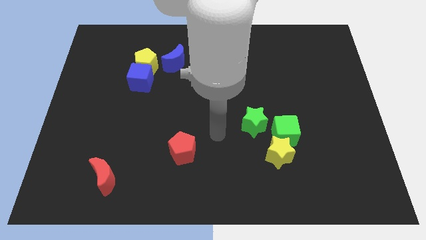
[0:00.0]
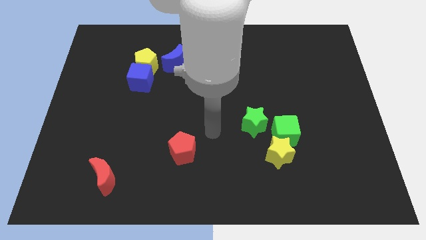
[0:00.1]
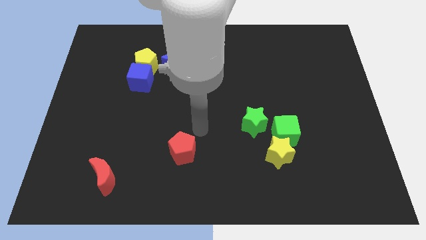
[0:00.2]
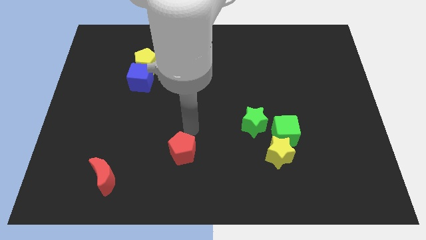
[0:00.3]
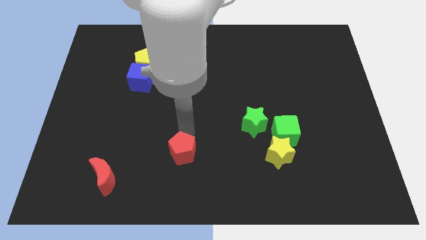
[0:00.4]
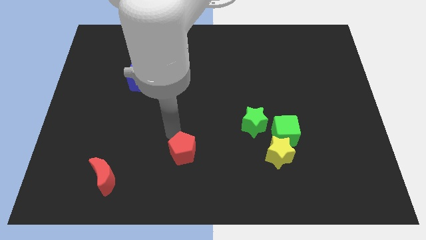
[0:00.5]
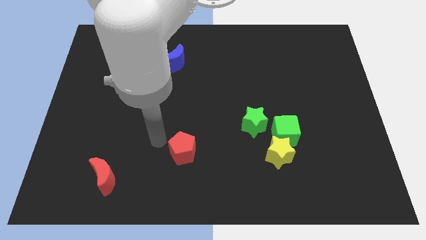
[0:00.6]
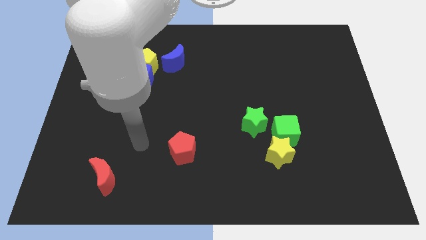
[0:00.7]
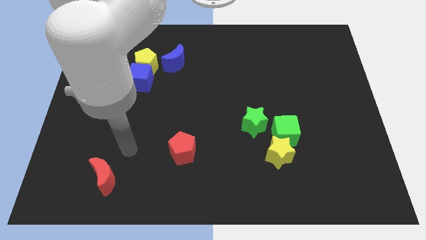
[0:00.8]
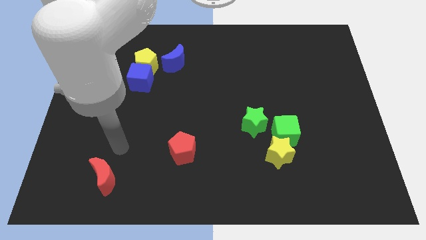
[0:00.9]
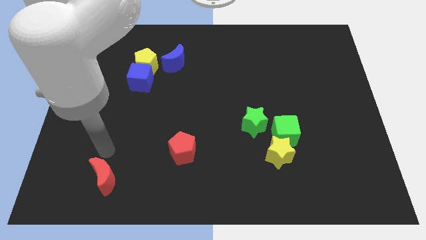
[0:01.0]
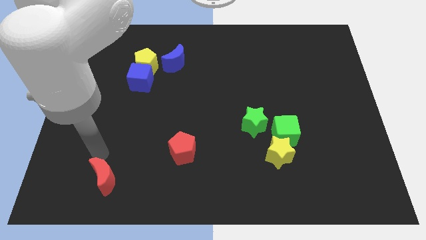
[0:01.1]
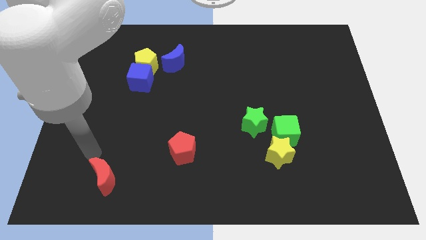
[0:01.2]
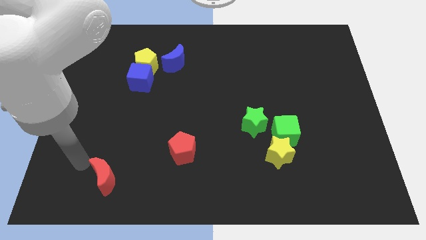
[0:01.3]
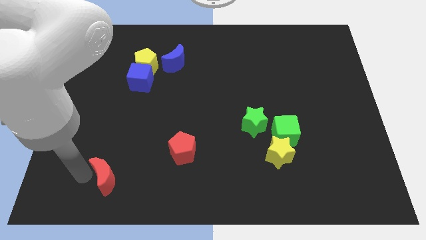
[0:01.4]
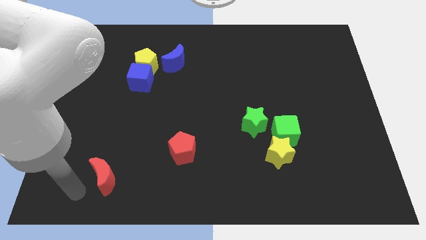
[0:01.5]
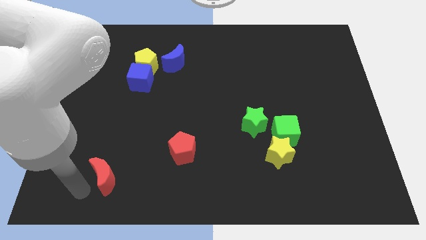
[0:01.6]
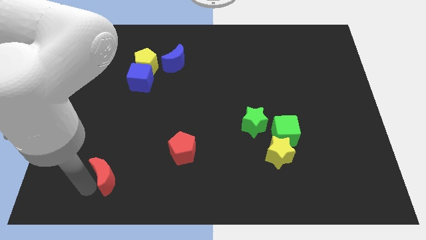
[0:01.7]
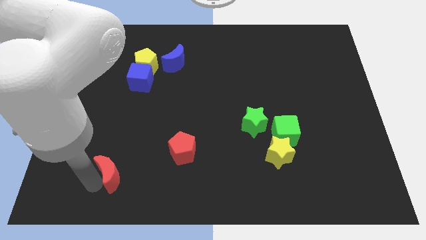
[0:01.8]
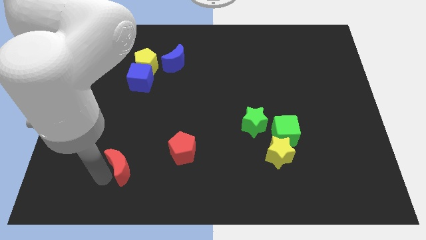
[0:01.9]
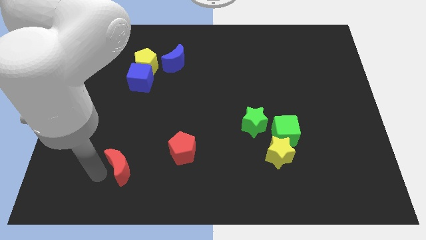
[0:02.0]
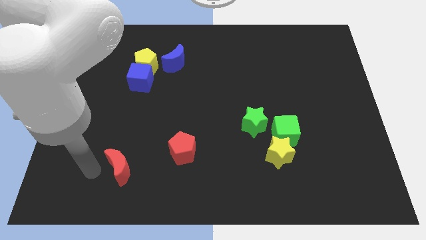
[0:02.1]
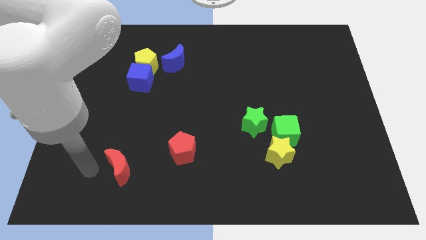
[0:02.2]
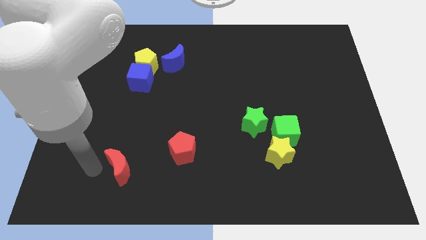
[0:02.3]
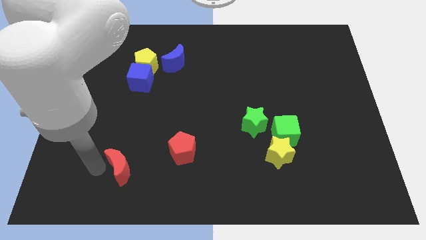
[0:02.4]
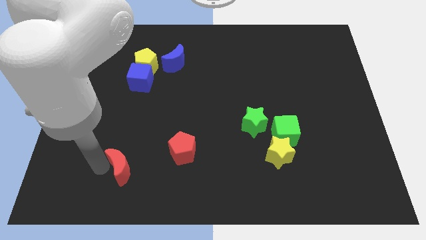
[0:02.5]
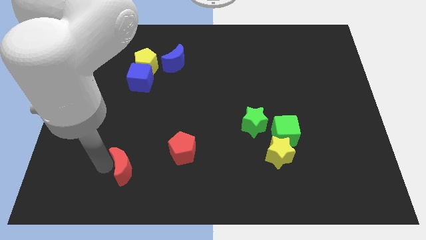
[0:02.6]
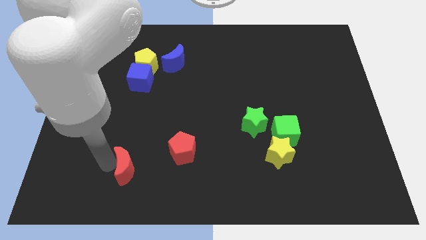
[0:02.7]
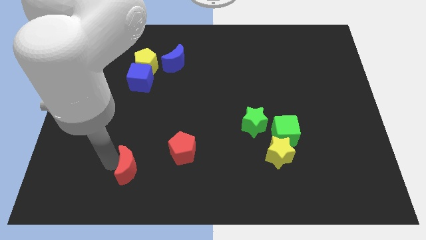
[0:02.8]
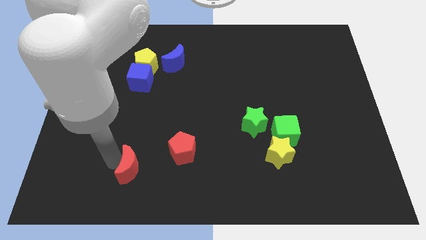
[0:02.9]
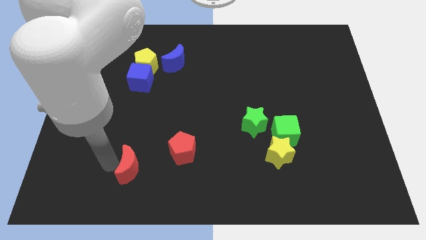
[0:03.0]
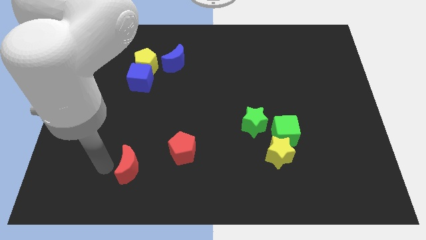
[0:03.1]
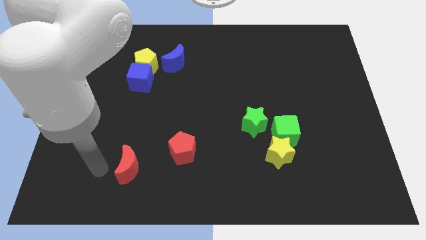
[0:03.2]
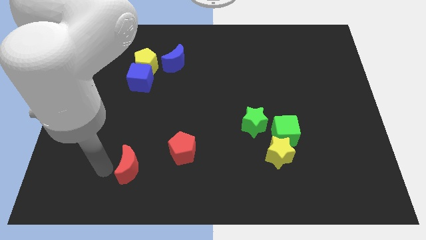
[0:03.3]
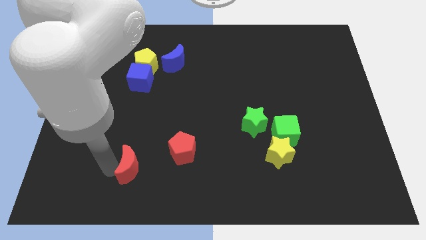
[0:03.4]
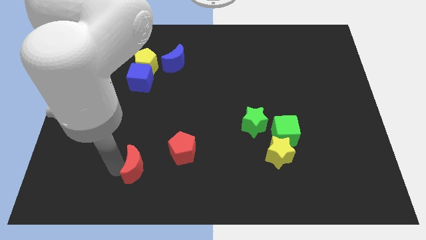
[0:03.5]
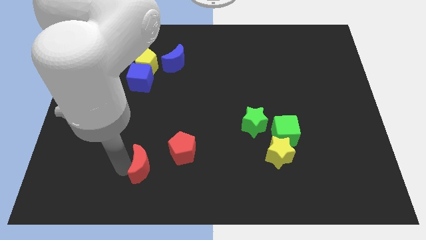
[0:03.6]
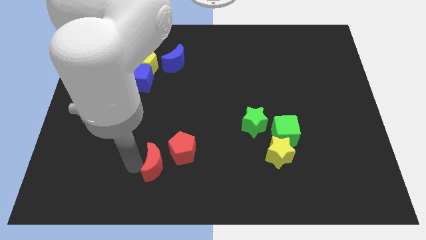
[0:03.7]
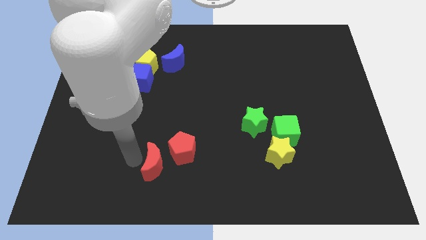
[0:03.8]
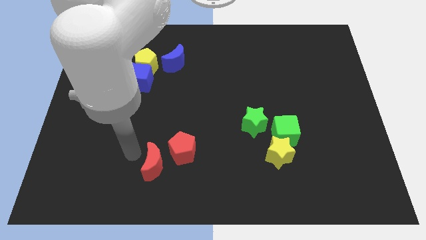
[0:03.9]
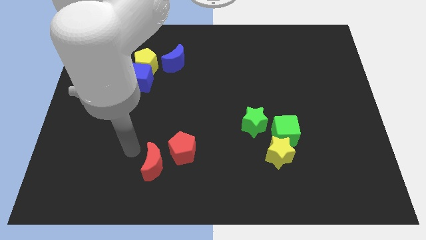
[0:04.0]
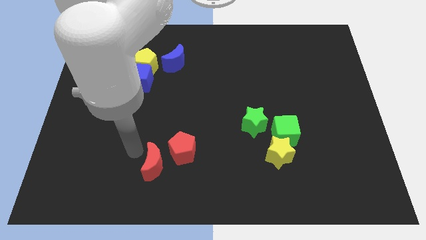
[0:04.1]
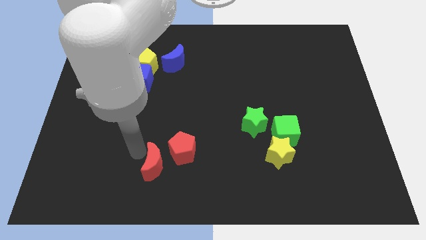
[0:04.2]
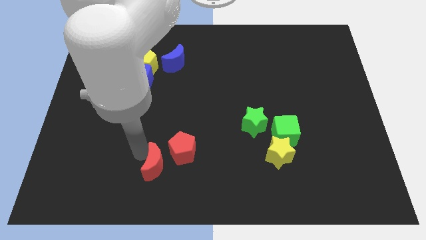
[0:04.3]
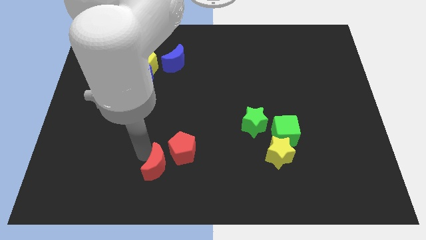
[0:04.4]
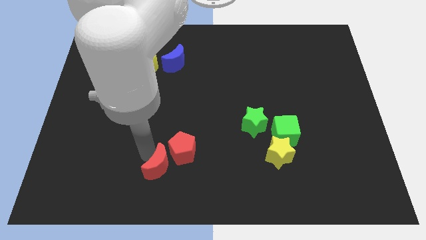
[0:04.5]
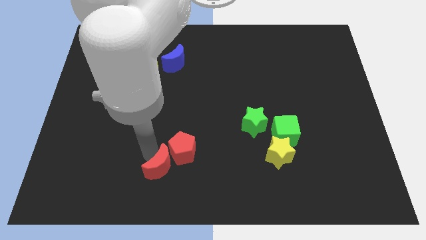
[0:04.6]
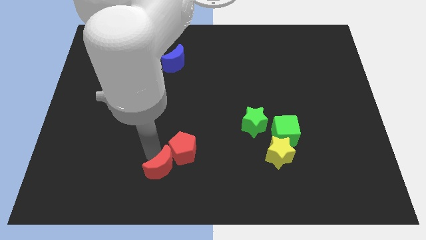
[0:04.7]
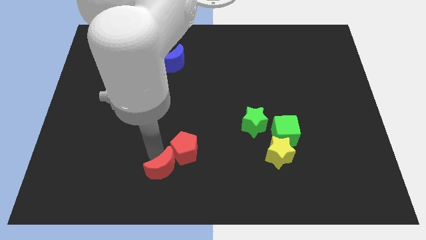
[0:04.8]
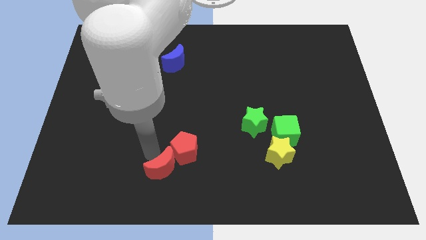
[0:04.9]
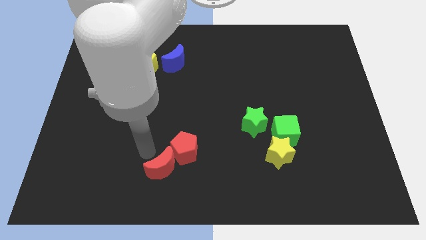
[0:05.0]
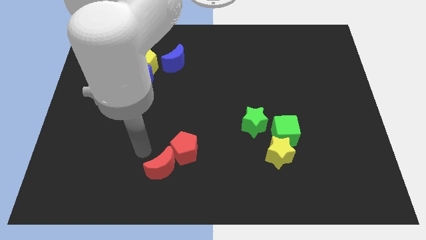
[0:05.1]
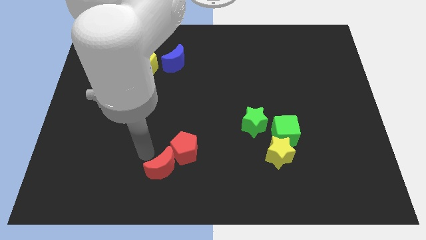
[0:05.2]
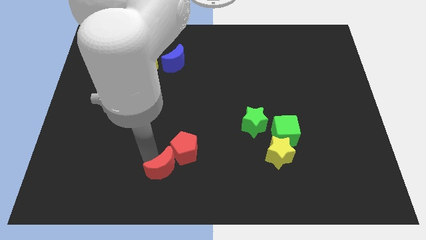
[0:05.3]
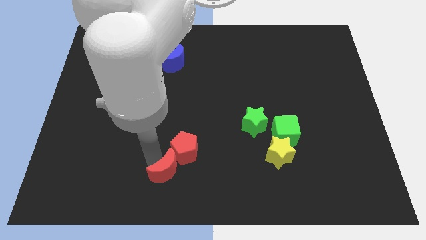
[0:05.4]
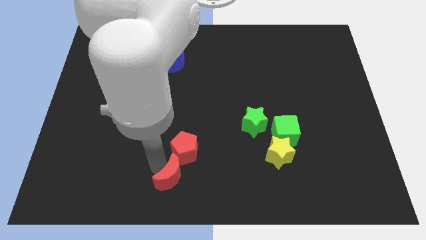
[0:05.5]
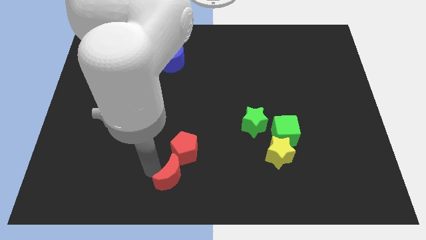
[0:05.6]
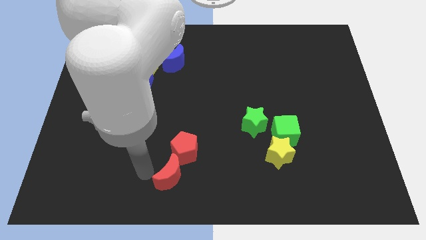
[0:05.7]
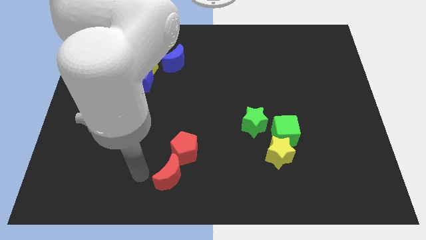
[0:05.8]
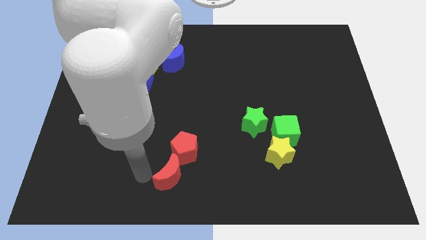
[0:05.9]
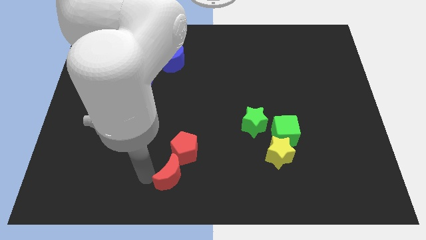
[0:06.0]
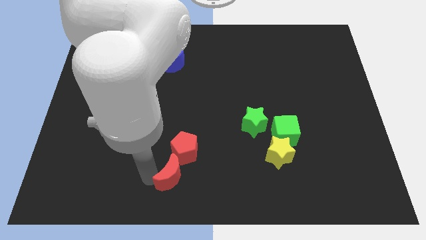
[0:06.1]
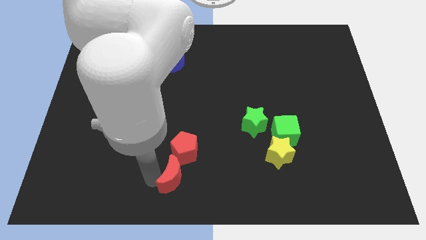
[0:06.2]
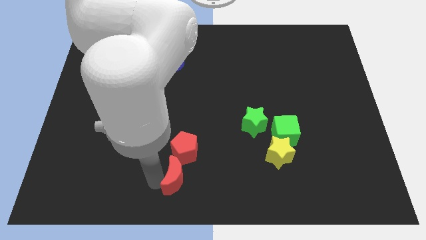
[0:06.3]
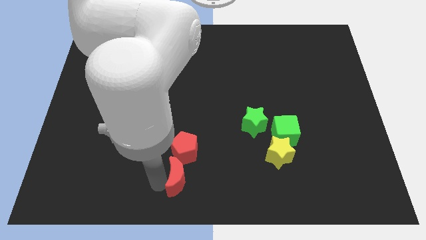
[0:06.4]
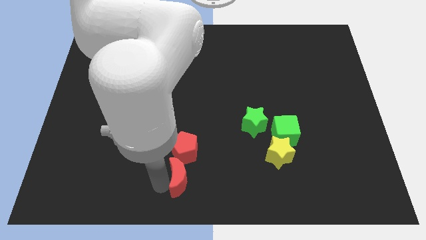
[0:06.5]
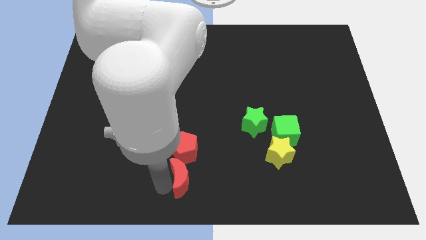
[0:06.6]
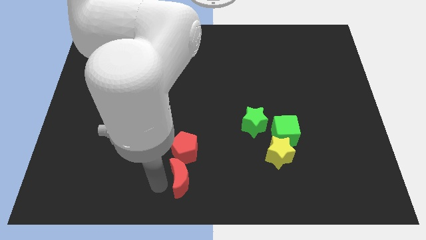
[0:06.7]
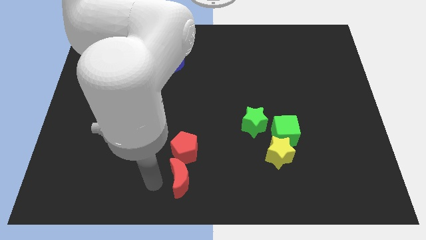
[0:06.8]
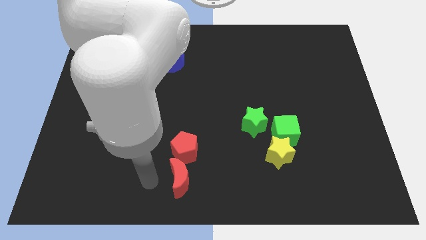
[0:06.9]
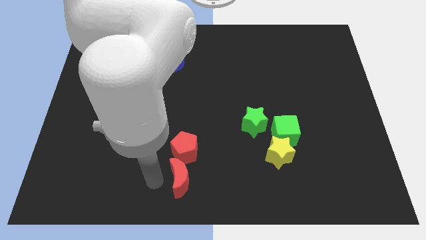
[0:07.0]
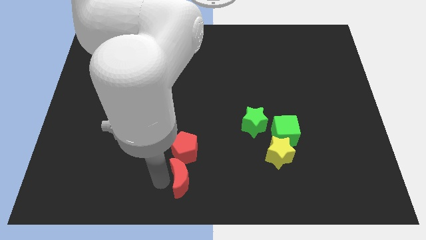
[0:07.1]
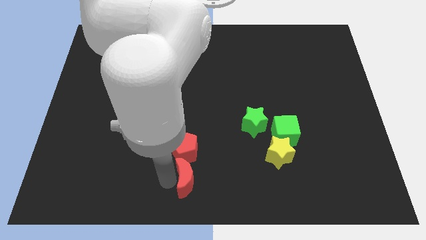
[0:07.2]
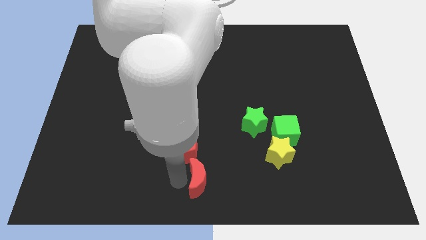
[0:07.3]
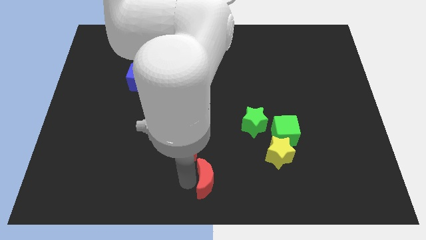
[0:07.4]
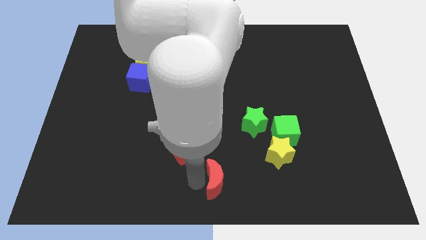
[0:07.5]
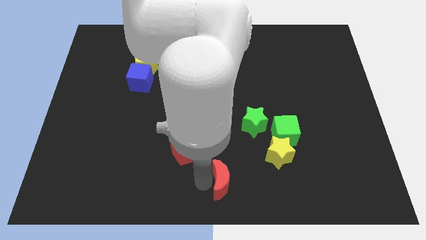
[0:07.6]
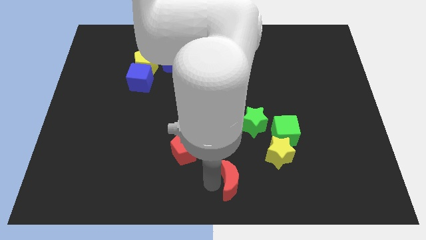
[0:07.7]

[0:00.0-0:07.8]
slide the red moon diagonally down and to the left of the yellow star
